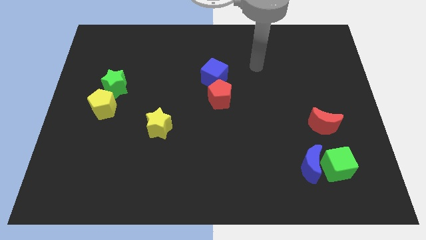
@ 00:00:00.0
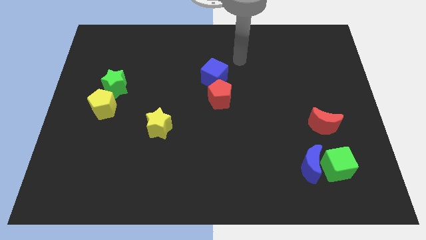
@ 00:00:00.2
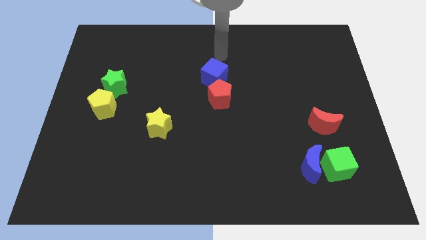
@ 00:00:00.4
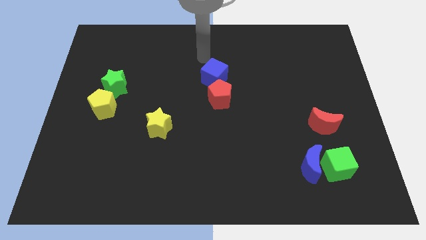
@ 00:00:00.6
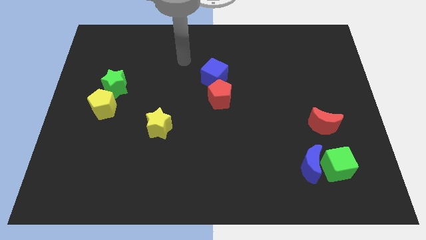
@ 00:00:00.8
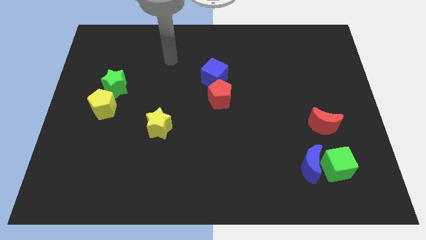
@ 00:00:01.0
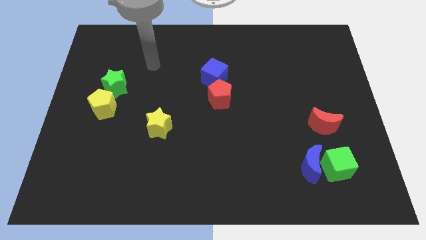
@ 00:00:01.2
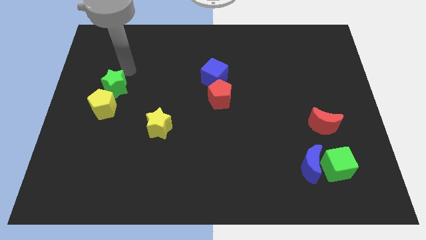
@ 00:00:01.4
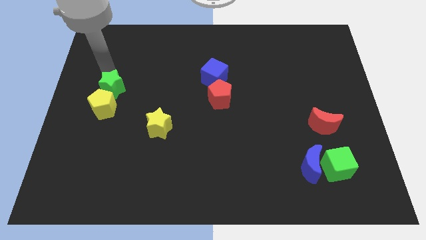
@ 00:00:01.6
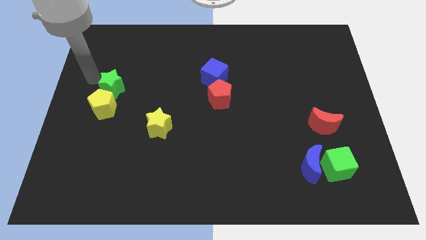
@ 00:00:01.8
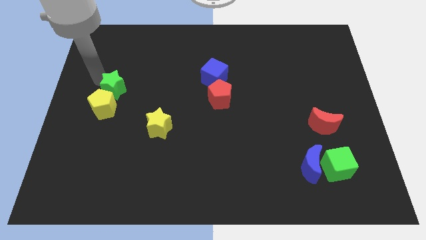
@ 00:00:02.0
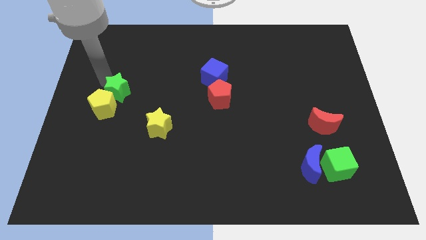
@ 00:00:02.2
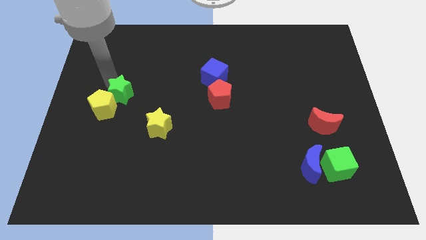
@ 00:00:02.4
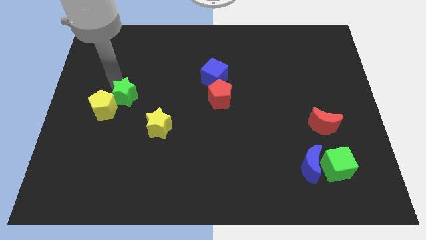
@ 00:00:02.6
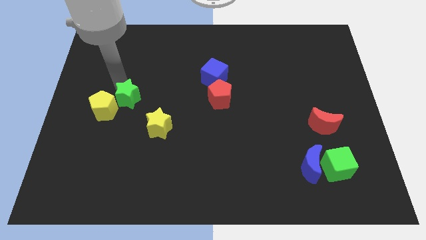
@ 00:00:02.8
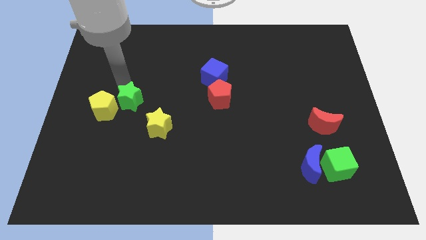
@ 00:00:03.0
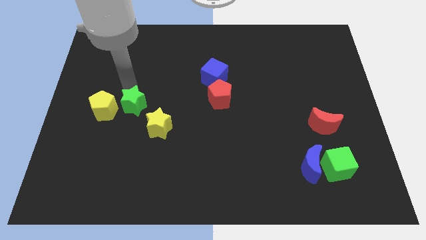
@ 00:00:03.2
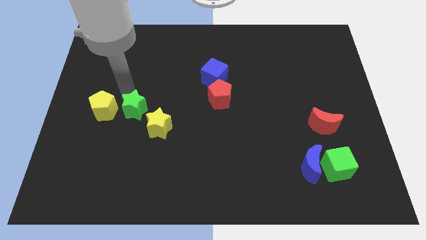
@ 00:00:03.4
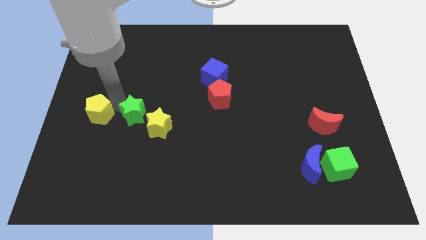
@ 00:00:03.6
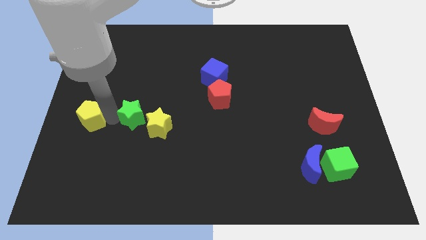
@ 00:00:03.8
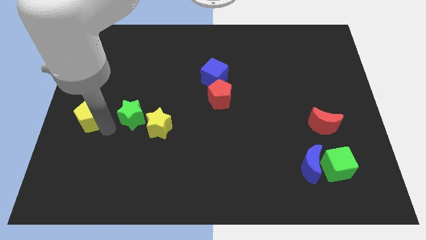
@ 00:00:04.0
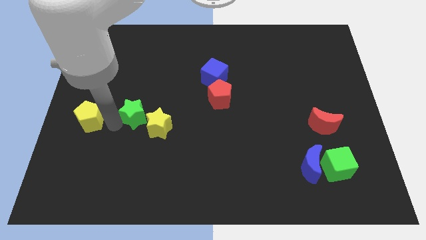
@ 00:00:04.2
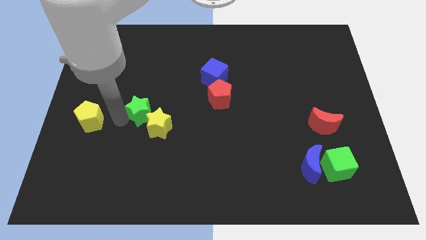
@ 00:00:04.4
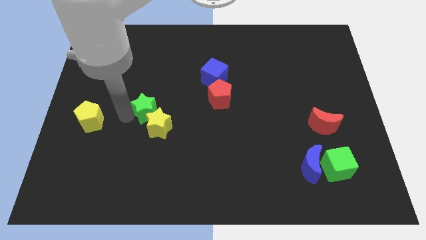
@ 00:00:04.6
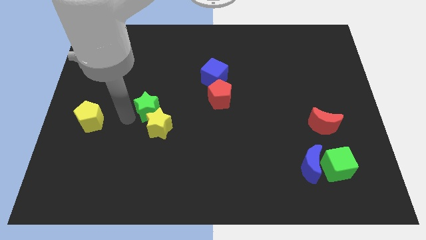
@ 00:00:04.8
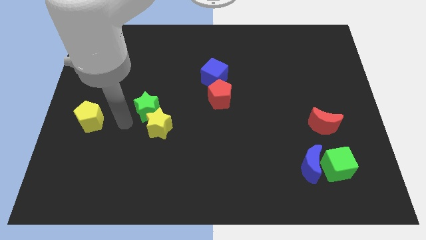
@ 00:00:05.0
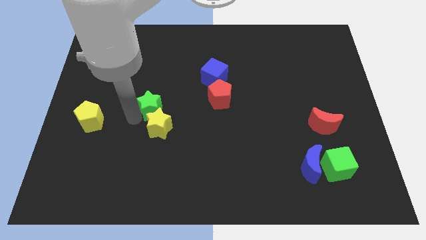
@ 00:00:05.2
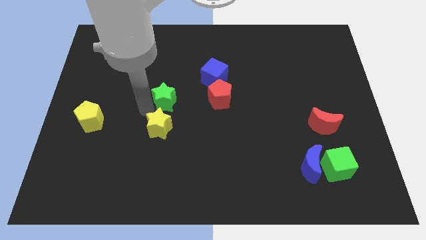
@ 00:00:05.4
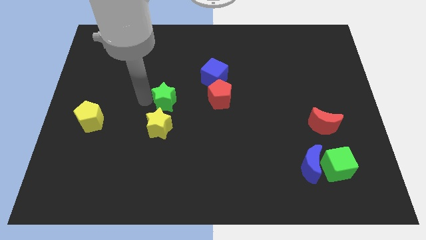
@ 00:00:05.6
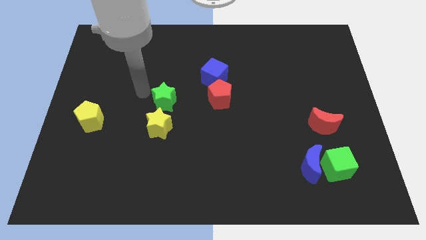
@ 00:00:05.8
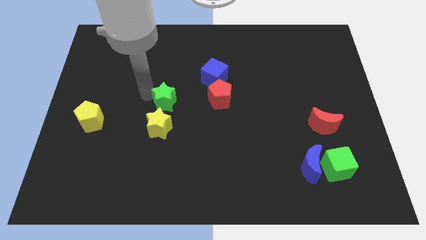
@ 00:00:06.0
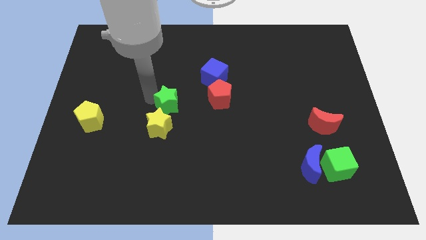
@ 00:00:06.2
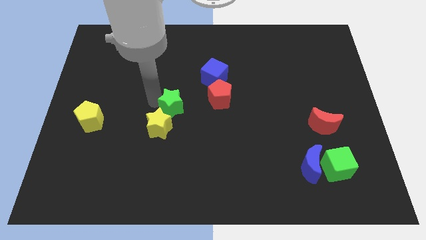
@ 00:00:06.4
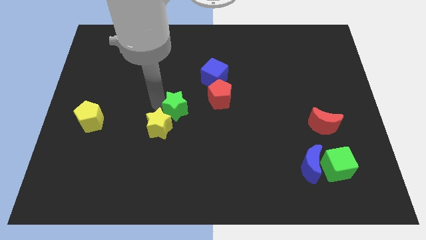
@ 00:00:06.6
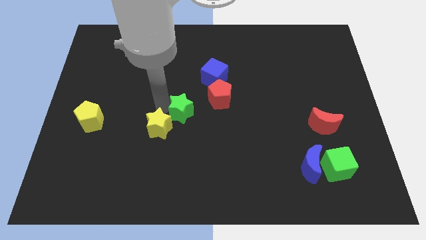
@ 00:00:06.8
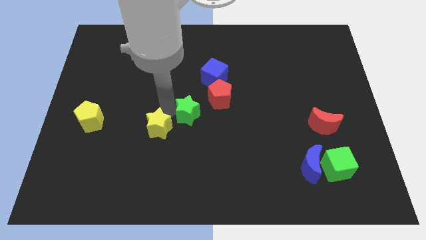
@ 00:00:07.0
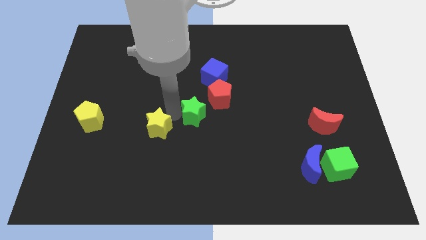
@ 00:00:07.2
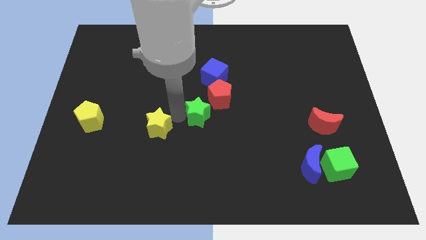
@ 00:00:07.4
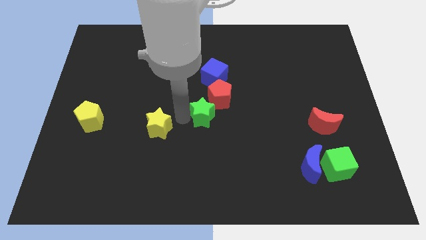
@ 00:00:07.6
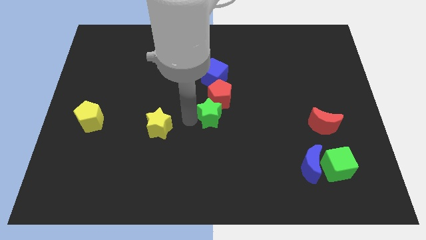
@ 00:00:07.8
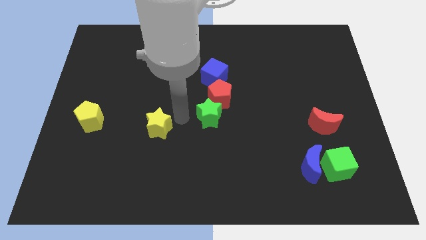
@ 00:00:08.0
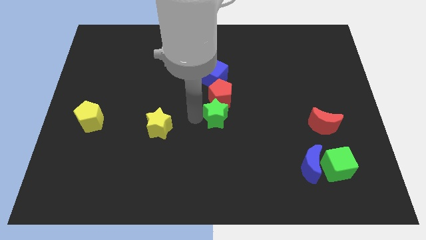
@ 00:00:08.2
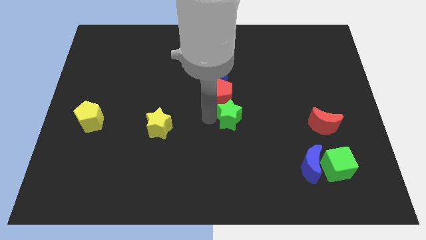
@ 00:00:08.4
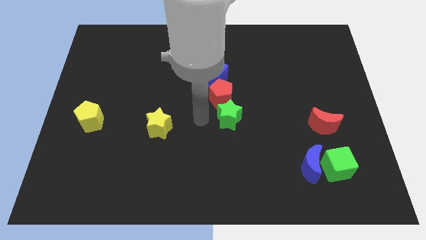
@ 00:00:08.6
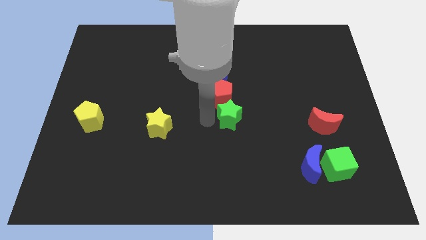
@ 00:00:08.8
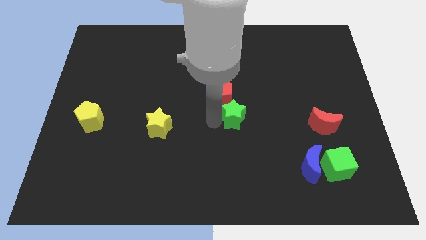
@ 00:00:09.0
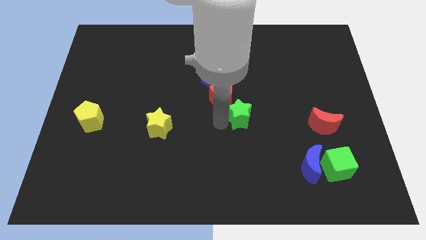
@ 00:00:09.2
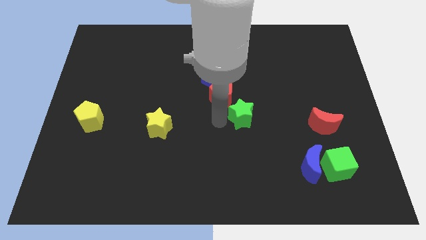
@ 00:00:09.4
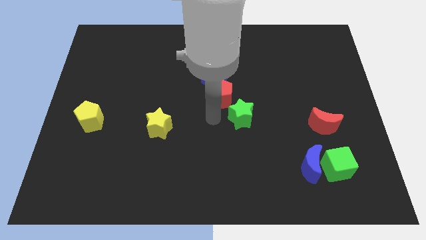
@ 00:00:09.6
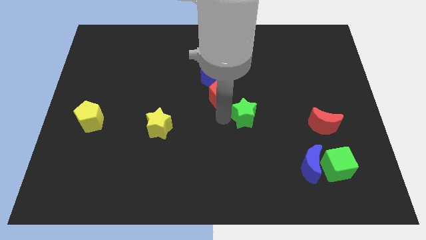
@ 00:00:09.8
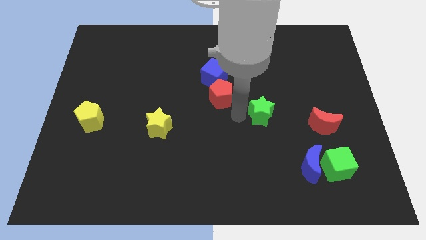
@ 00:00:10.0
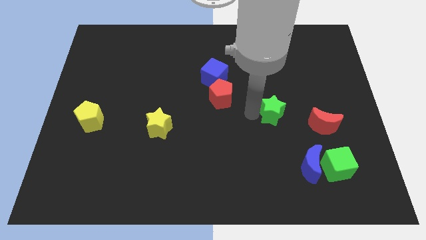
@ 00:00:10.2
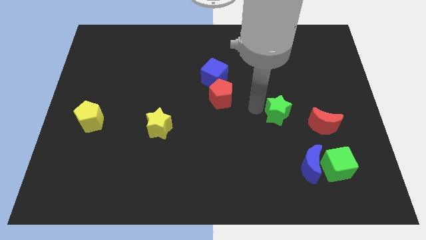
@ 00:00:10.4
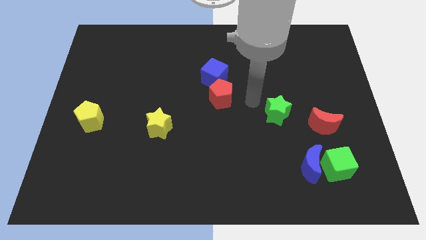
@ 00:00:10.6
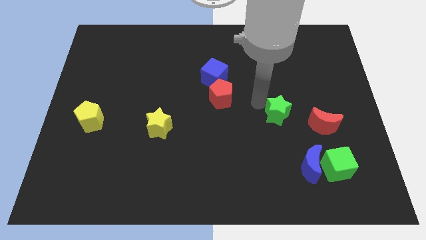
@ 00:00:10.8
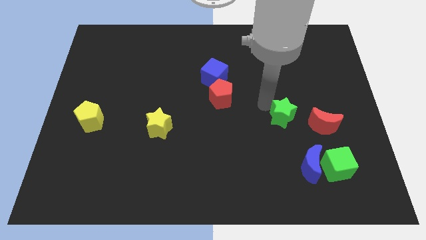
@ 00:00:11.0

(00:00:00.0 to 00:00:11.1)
put the green star to the top side of the blue moon

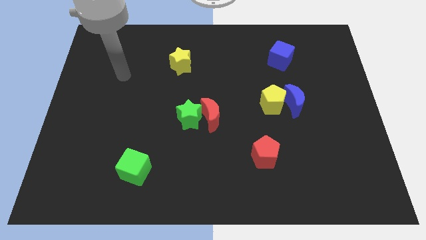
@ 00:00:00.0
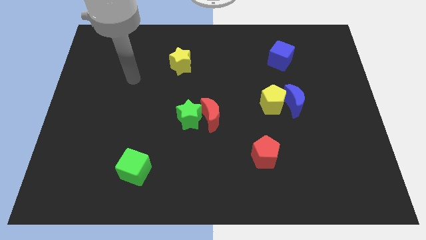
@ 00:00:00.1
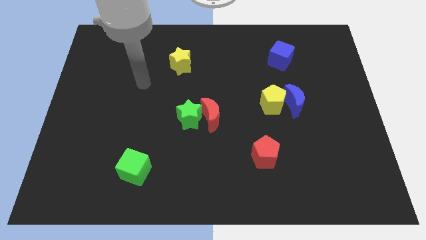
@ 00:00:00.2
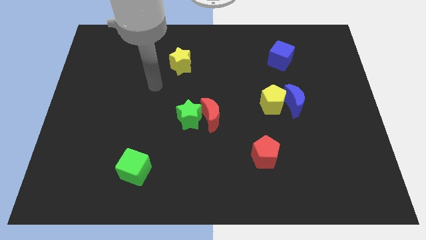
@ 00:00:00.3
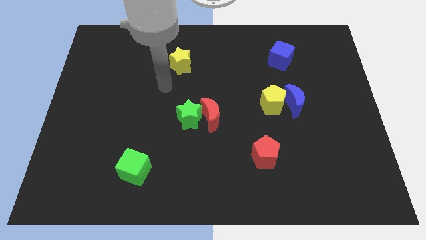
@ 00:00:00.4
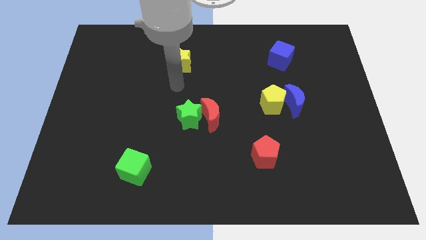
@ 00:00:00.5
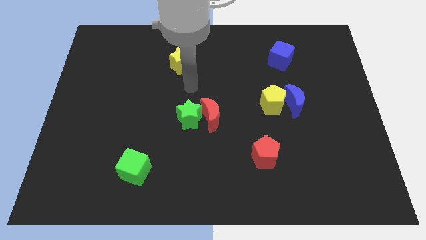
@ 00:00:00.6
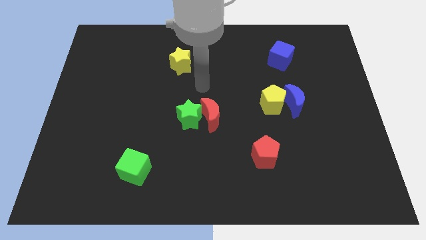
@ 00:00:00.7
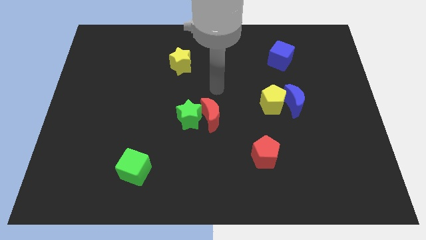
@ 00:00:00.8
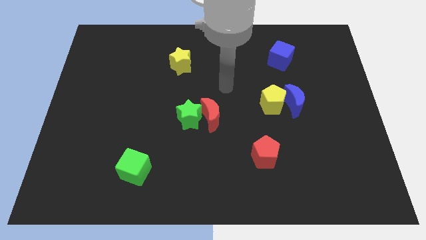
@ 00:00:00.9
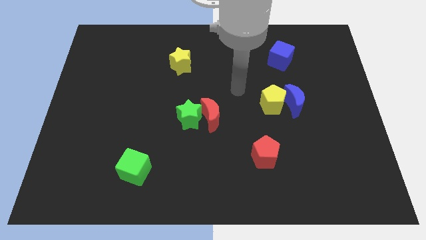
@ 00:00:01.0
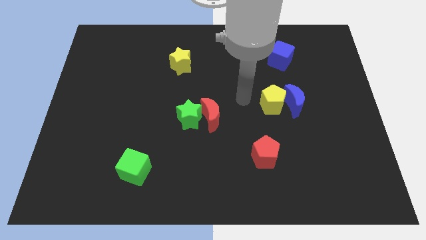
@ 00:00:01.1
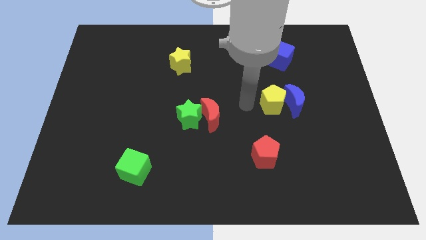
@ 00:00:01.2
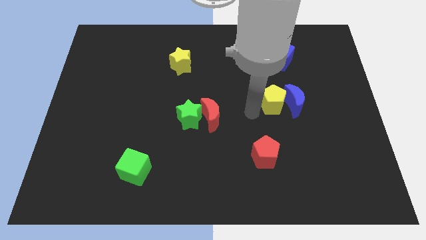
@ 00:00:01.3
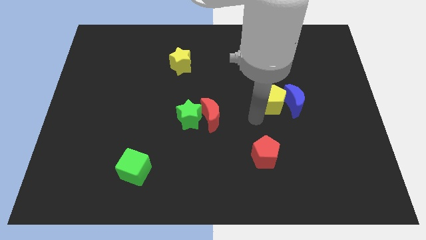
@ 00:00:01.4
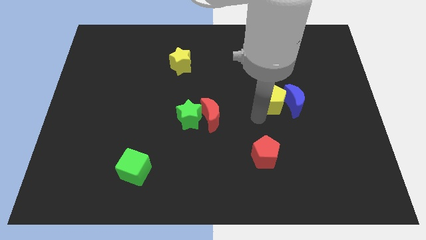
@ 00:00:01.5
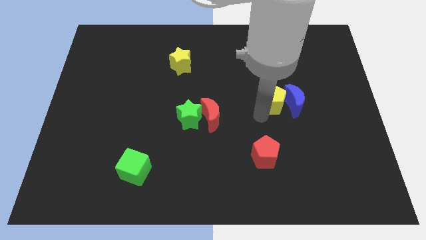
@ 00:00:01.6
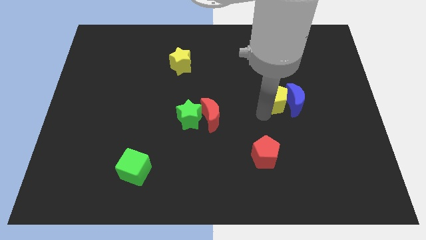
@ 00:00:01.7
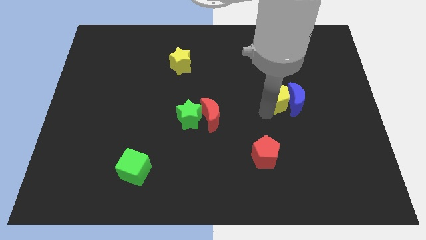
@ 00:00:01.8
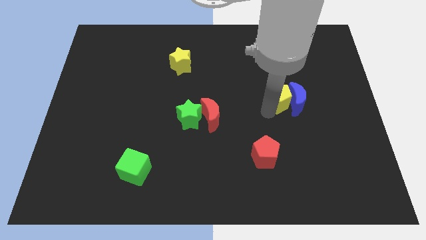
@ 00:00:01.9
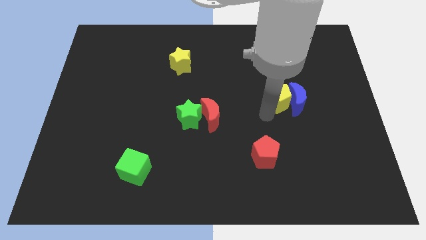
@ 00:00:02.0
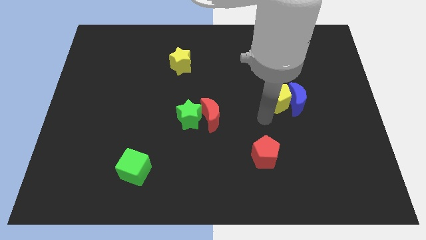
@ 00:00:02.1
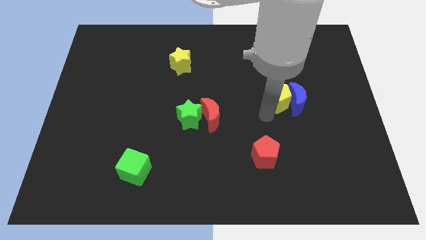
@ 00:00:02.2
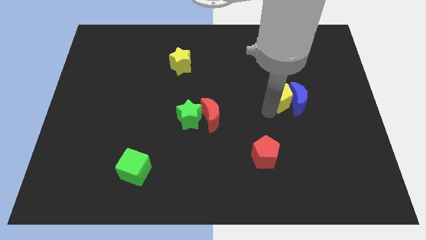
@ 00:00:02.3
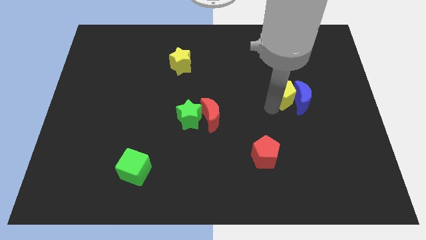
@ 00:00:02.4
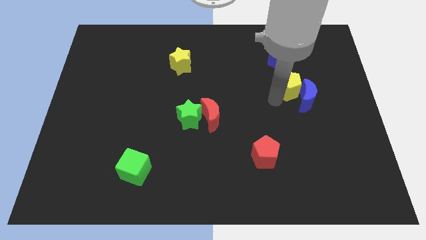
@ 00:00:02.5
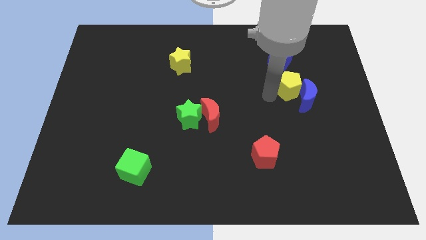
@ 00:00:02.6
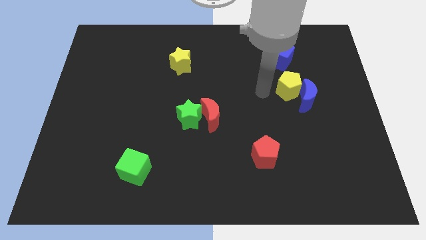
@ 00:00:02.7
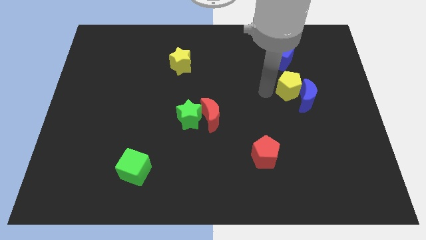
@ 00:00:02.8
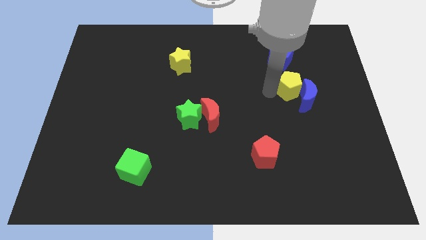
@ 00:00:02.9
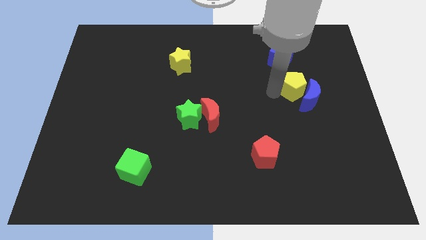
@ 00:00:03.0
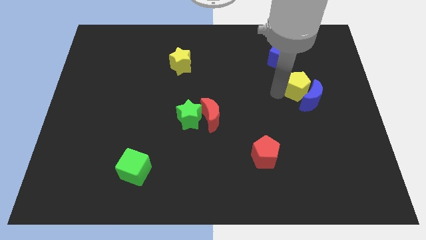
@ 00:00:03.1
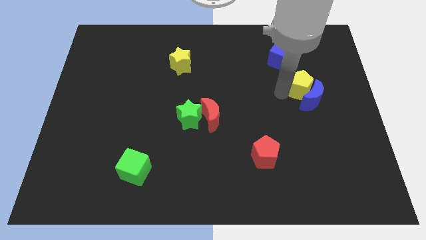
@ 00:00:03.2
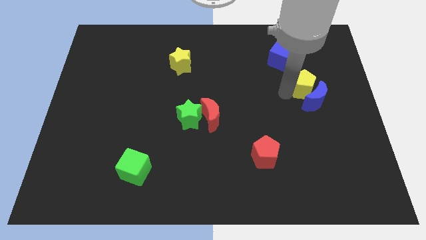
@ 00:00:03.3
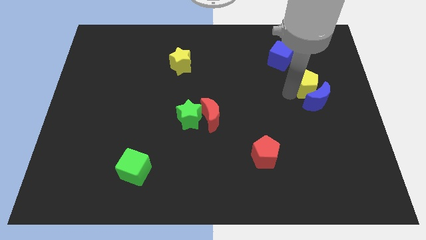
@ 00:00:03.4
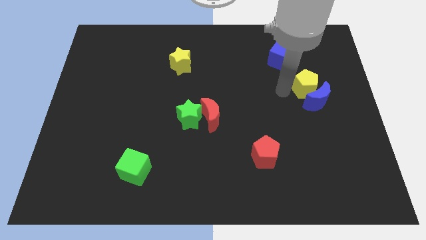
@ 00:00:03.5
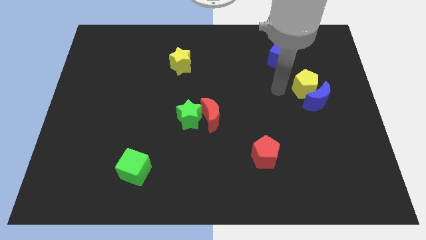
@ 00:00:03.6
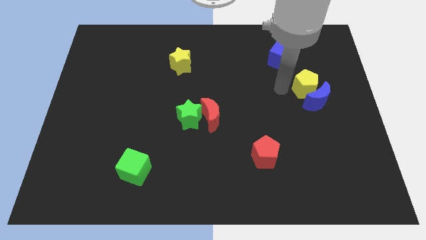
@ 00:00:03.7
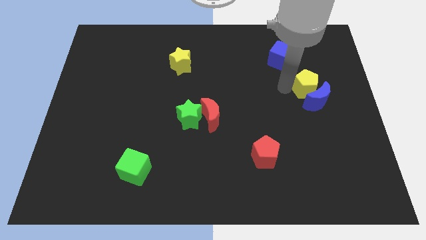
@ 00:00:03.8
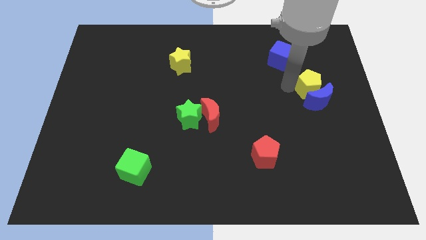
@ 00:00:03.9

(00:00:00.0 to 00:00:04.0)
move the yellow pentagon to the top right side of the blue moon
